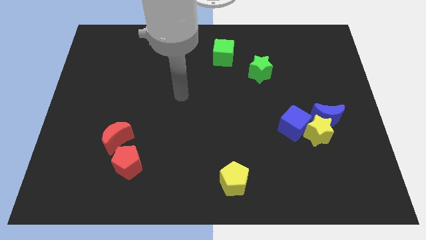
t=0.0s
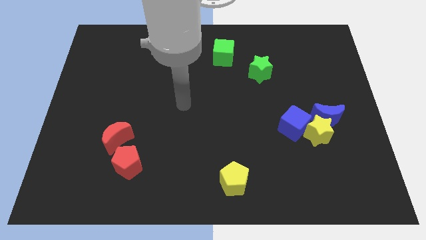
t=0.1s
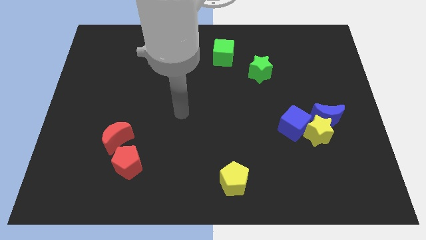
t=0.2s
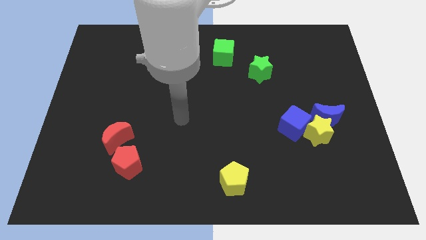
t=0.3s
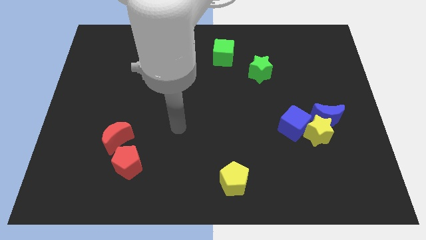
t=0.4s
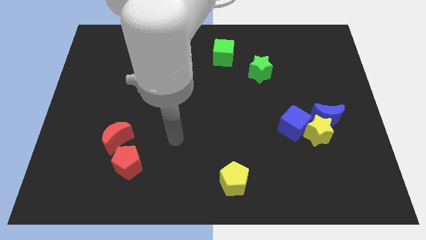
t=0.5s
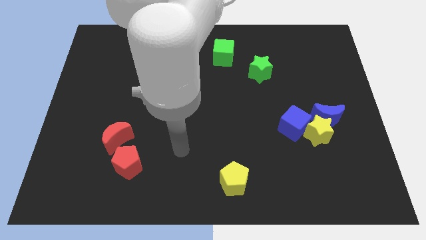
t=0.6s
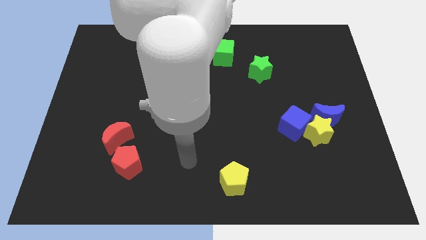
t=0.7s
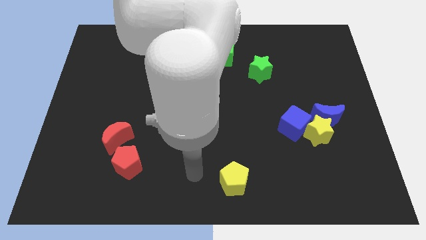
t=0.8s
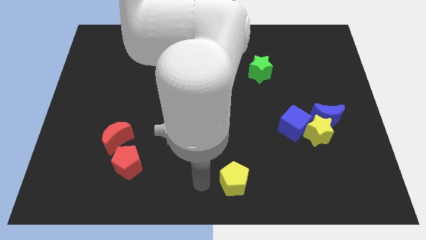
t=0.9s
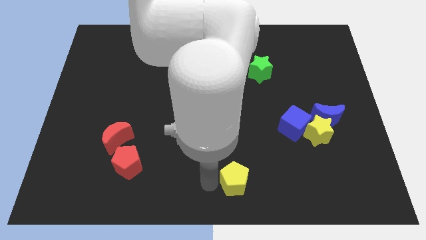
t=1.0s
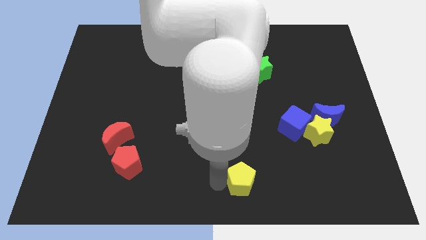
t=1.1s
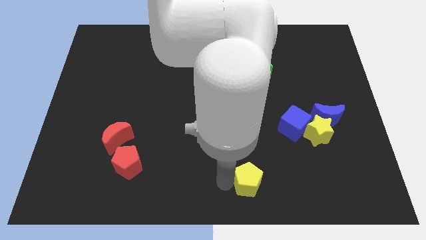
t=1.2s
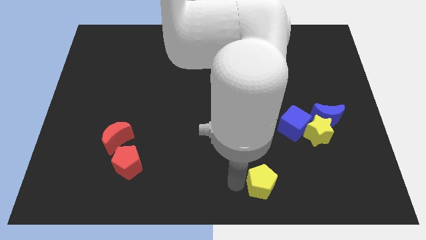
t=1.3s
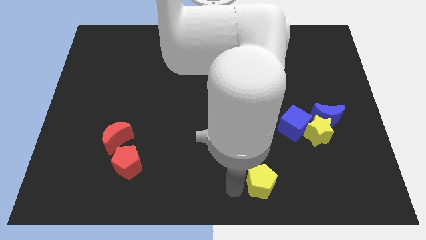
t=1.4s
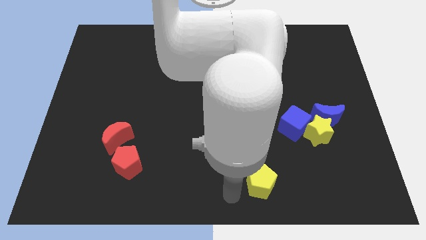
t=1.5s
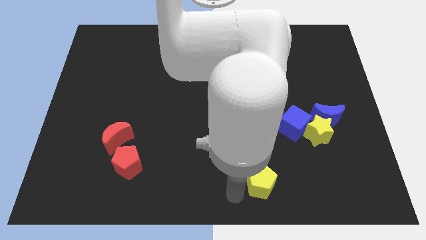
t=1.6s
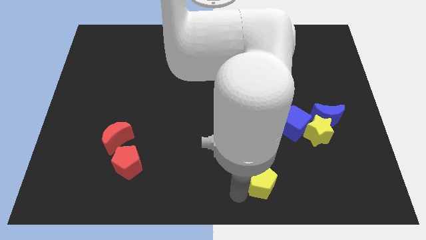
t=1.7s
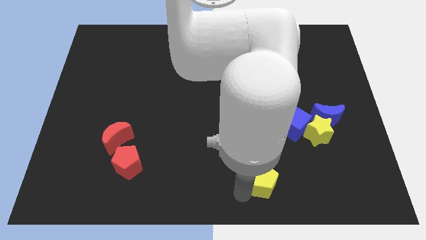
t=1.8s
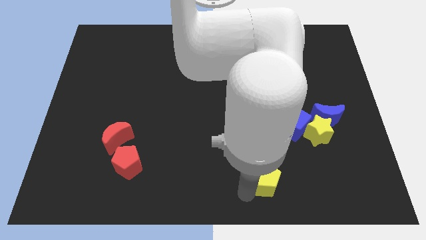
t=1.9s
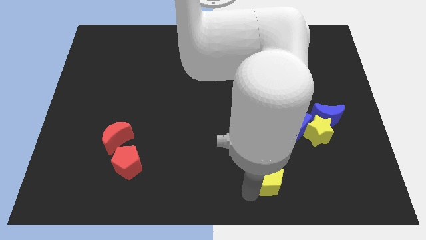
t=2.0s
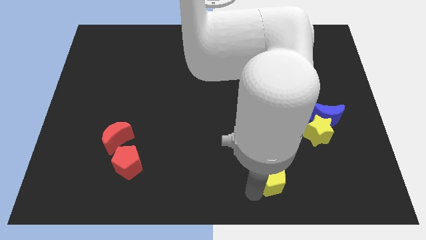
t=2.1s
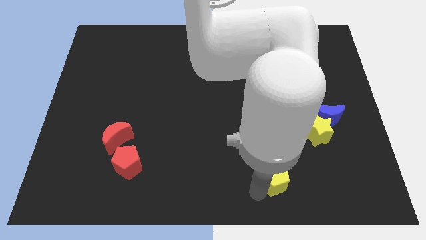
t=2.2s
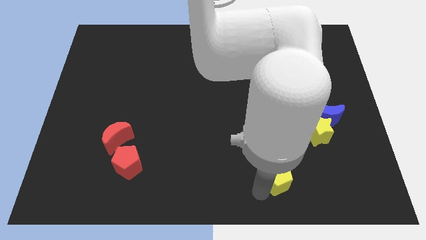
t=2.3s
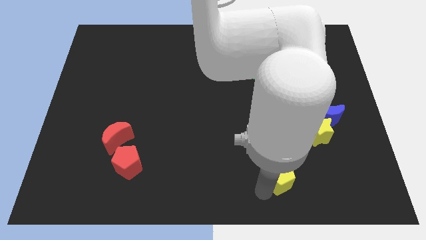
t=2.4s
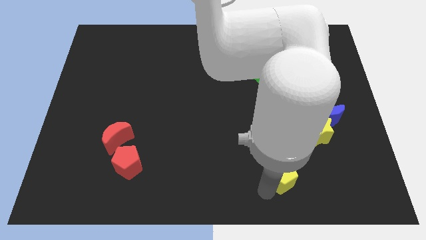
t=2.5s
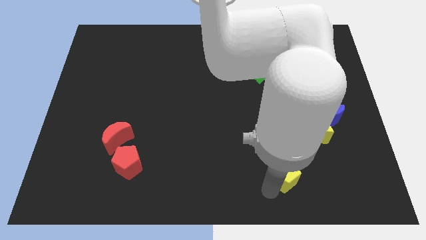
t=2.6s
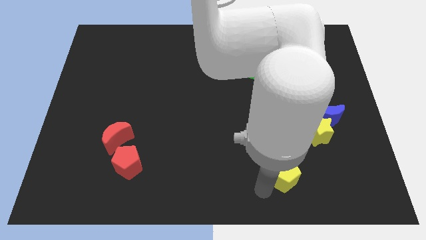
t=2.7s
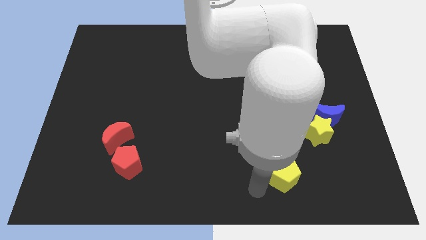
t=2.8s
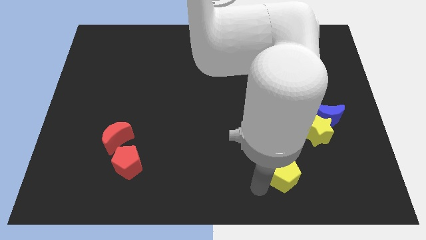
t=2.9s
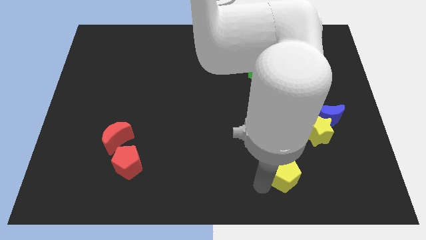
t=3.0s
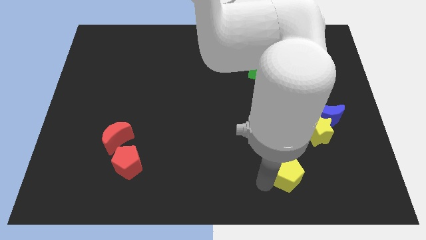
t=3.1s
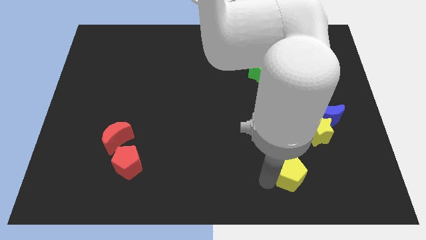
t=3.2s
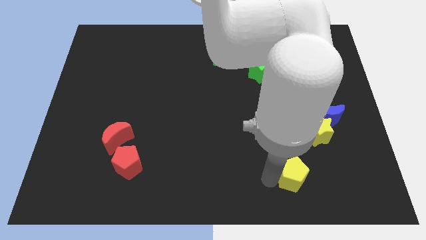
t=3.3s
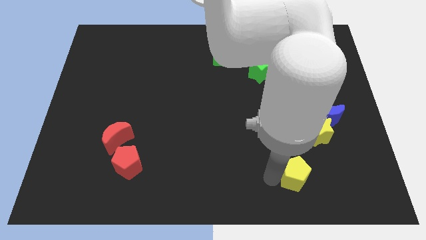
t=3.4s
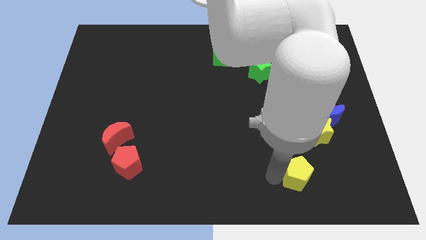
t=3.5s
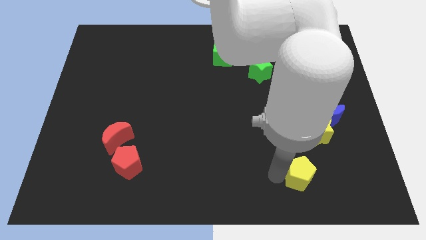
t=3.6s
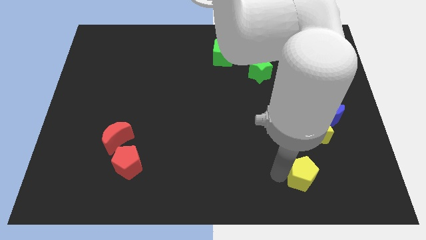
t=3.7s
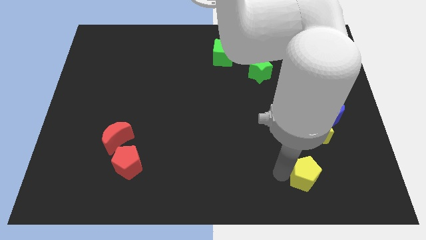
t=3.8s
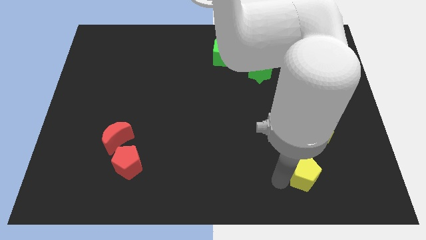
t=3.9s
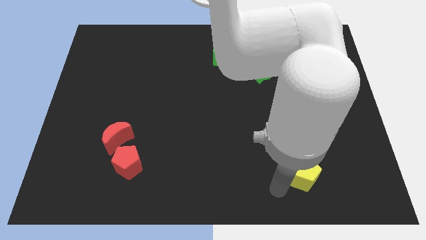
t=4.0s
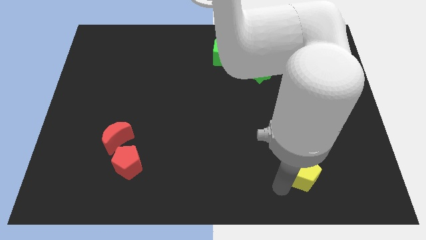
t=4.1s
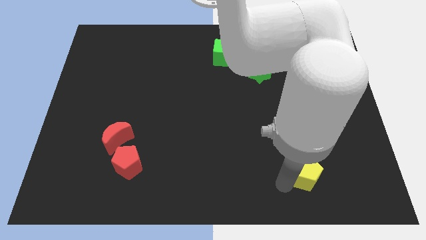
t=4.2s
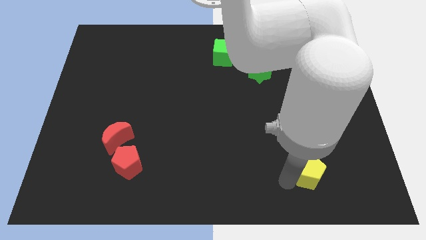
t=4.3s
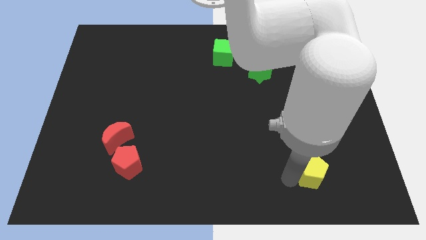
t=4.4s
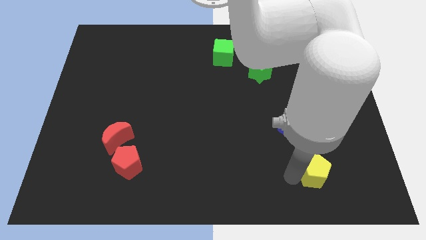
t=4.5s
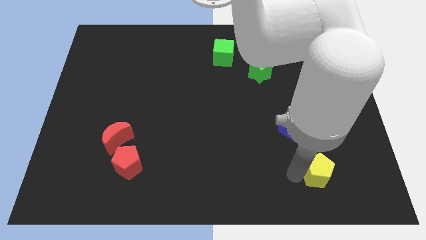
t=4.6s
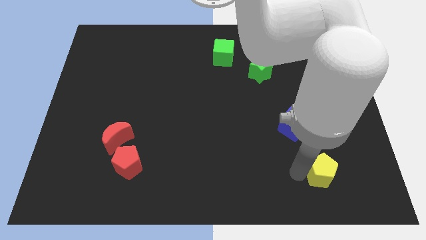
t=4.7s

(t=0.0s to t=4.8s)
move the yellow pentagon to the bottom of the blue moon

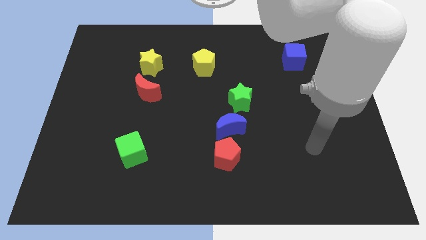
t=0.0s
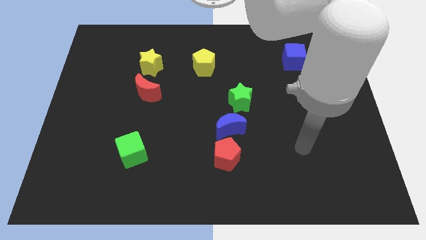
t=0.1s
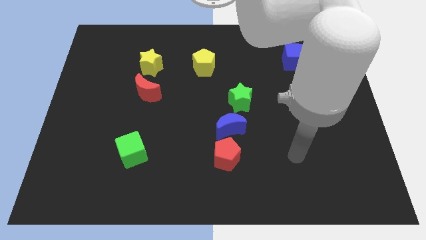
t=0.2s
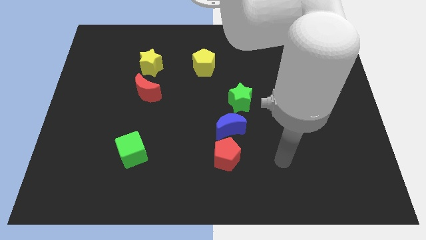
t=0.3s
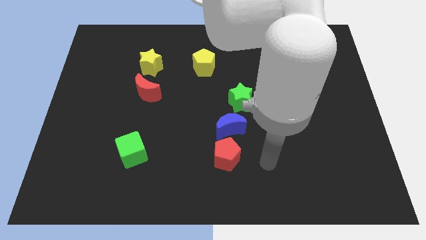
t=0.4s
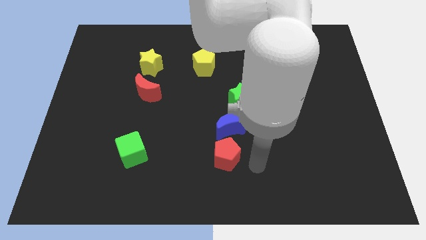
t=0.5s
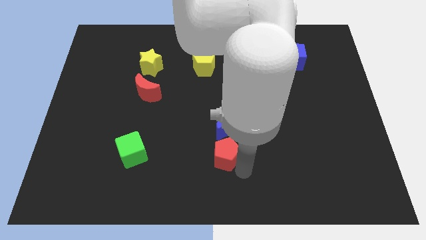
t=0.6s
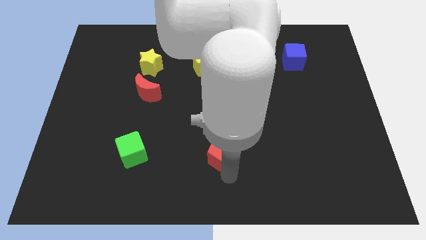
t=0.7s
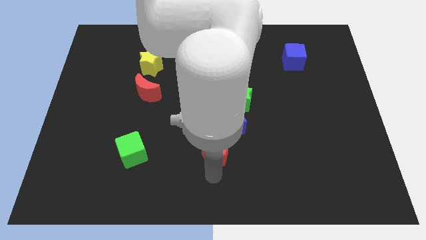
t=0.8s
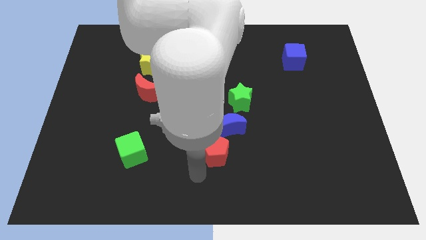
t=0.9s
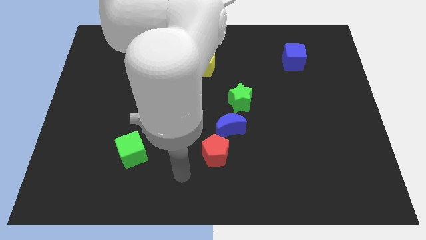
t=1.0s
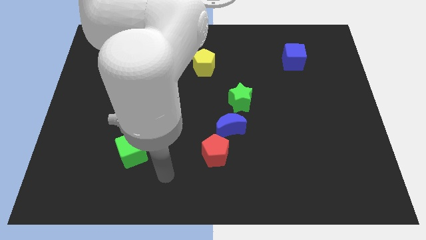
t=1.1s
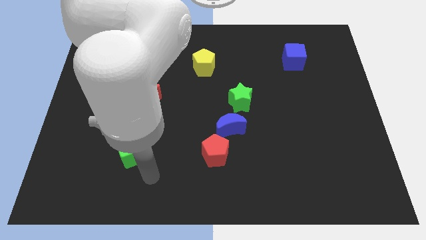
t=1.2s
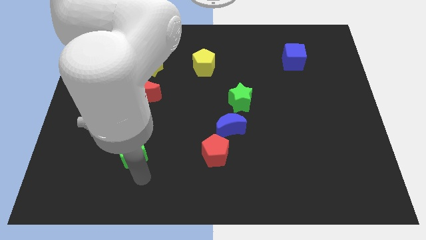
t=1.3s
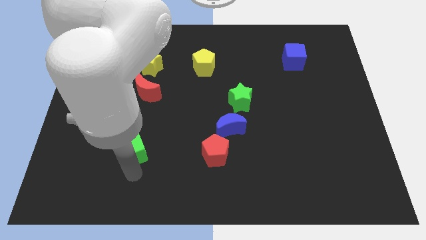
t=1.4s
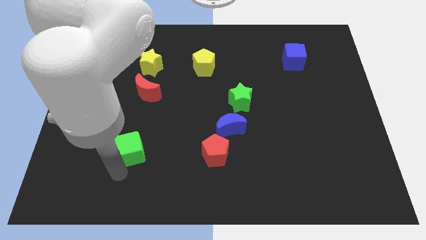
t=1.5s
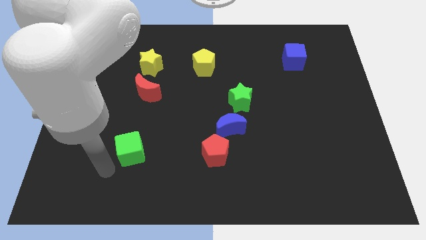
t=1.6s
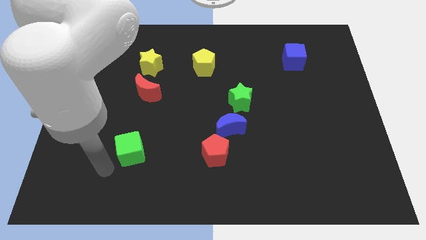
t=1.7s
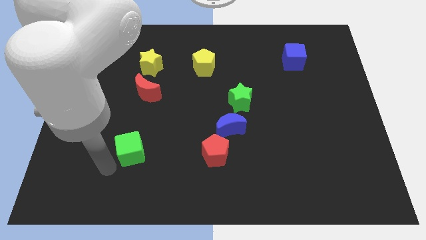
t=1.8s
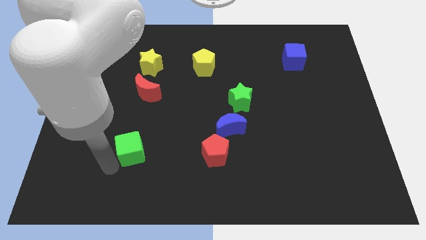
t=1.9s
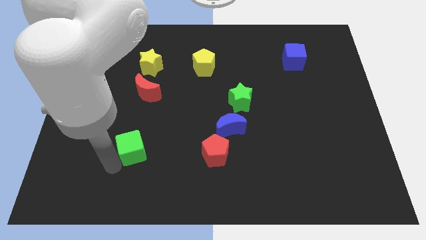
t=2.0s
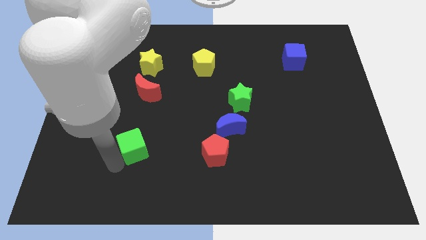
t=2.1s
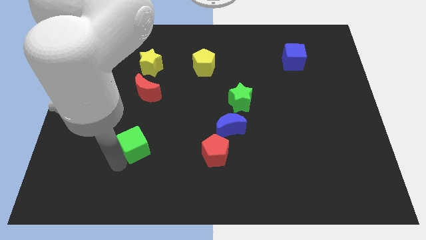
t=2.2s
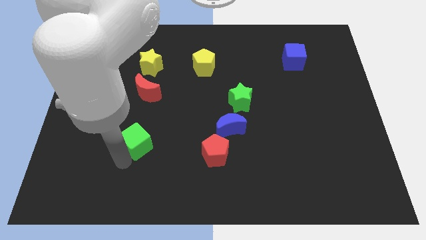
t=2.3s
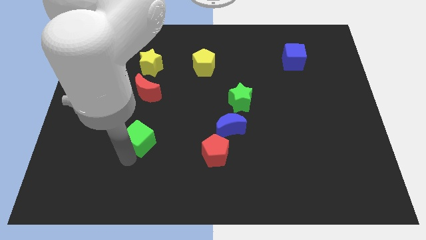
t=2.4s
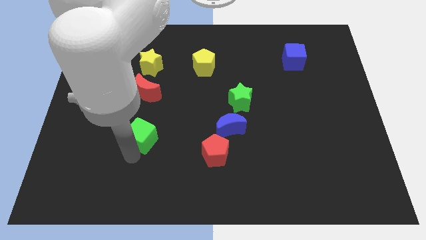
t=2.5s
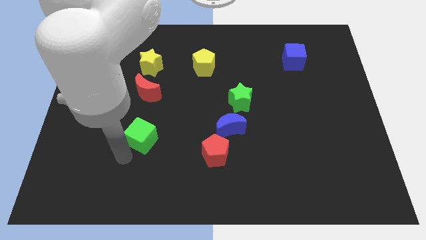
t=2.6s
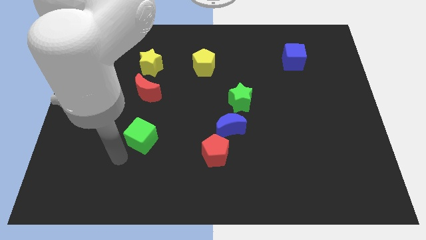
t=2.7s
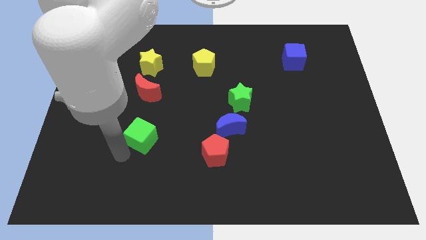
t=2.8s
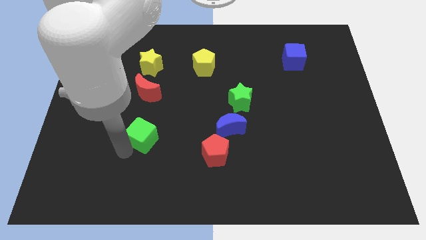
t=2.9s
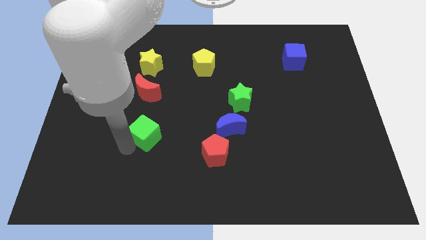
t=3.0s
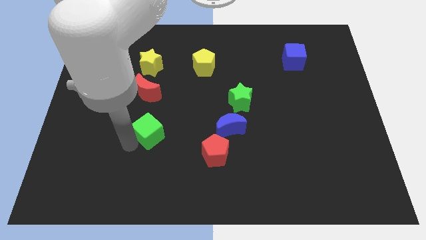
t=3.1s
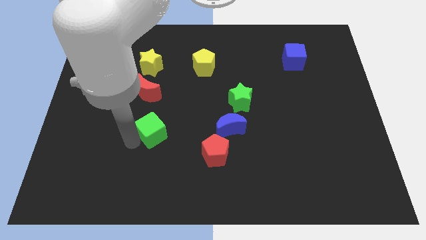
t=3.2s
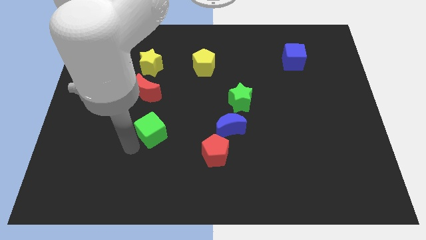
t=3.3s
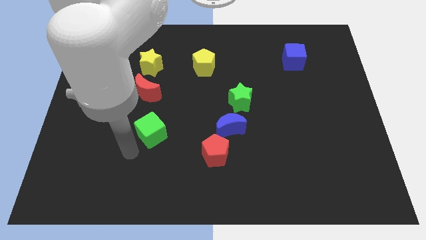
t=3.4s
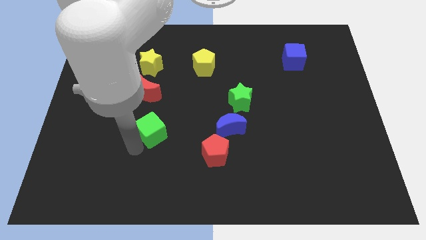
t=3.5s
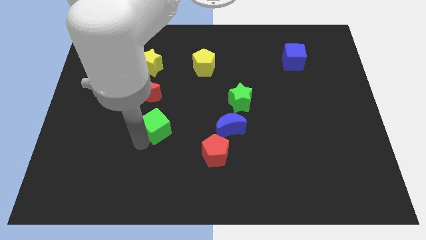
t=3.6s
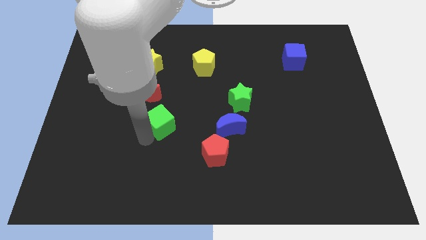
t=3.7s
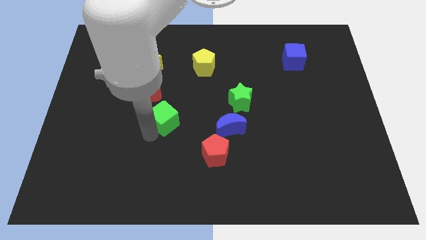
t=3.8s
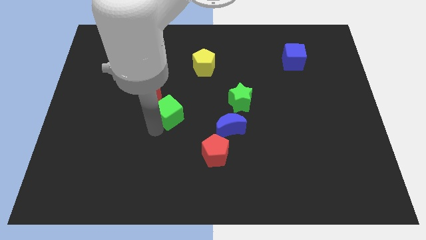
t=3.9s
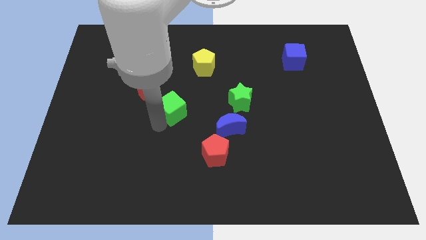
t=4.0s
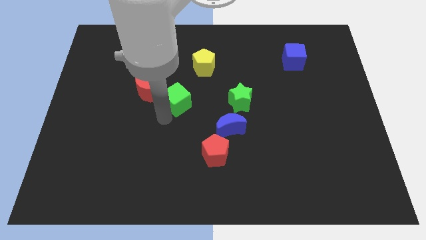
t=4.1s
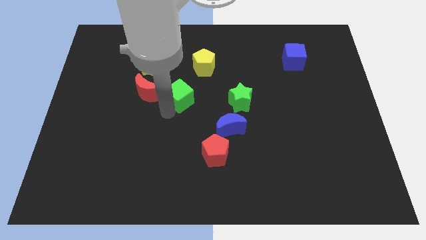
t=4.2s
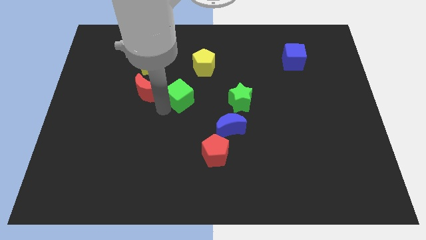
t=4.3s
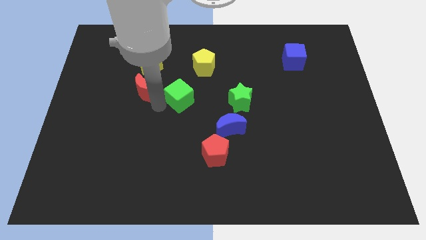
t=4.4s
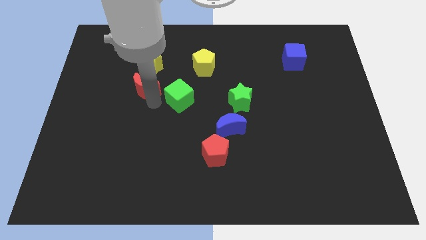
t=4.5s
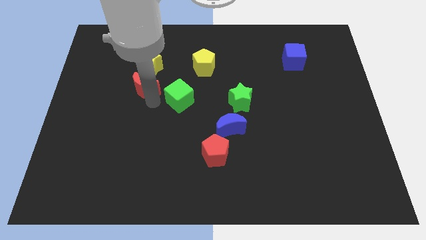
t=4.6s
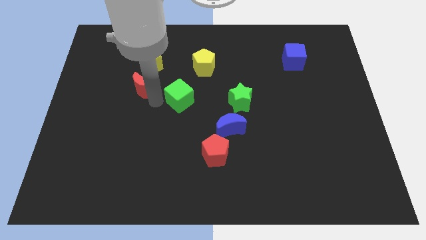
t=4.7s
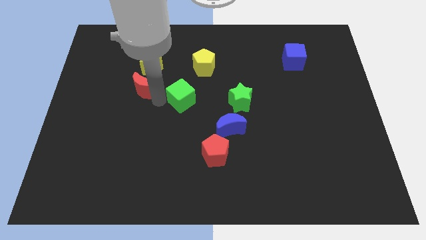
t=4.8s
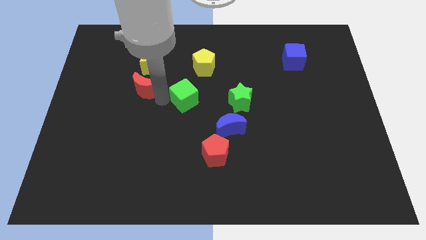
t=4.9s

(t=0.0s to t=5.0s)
slide the green cube to the bottom side of the yellow pentagon
